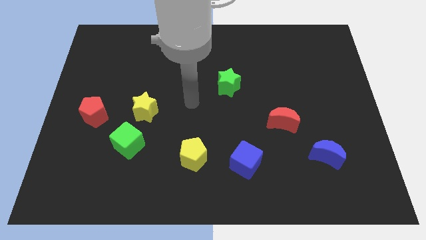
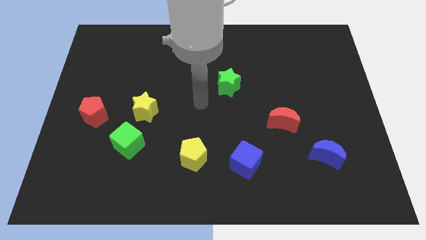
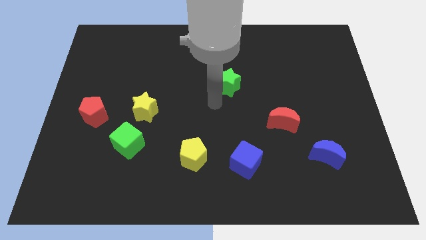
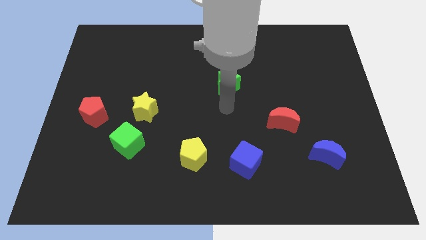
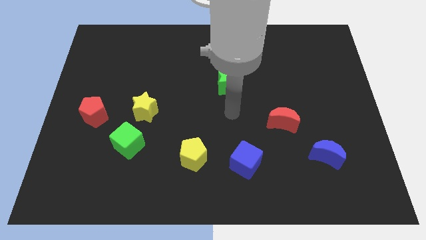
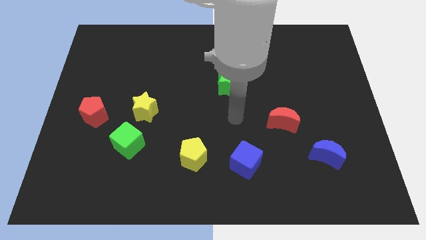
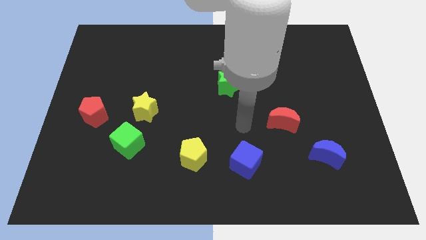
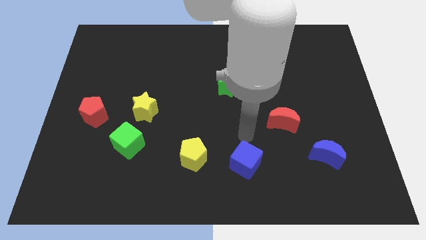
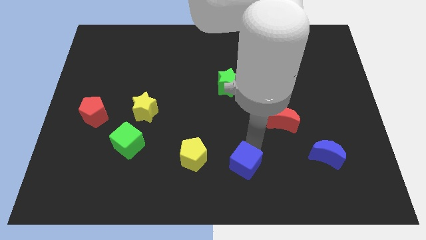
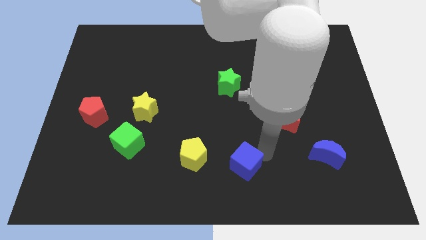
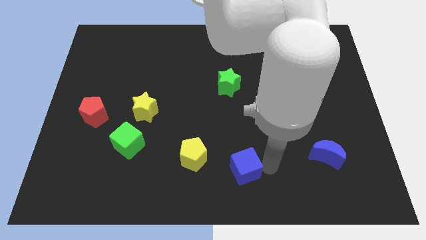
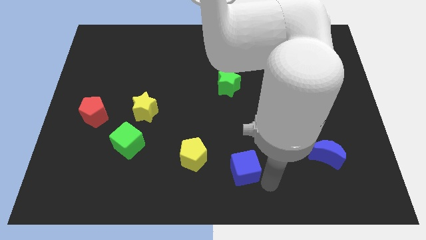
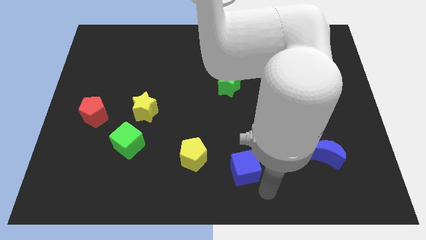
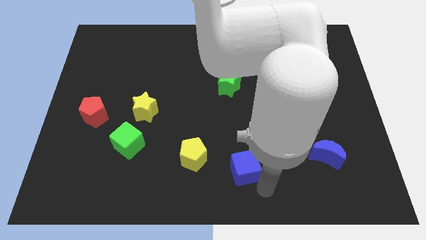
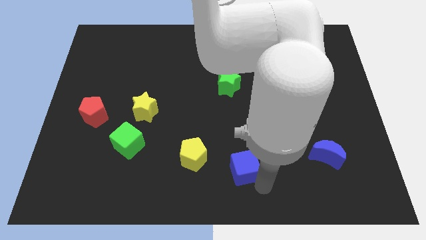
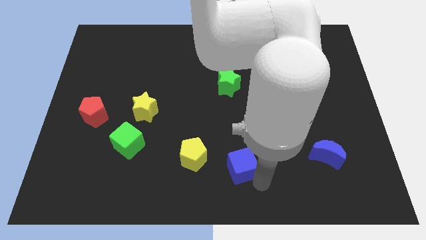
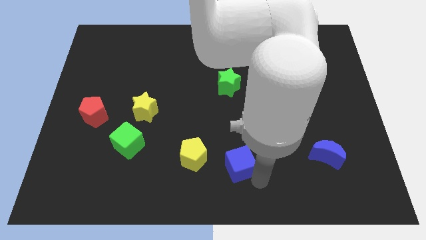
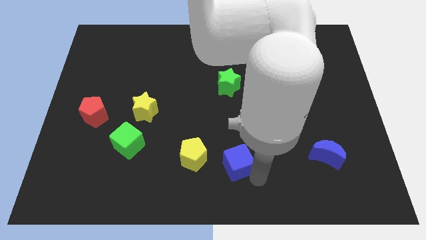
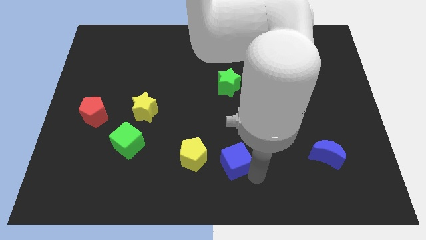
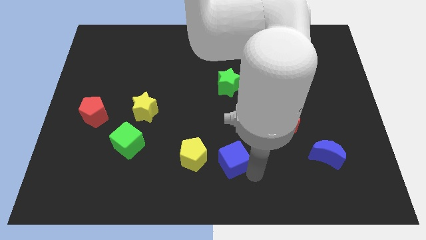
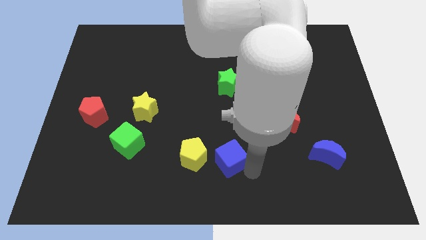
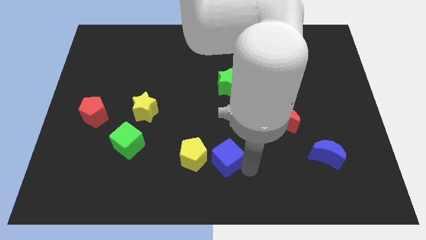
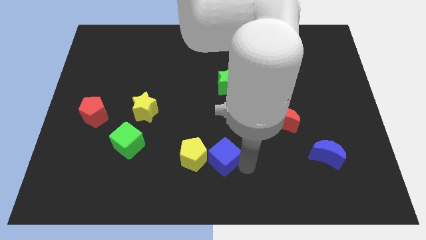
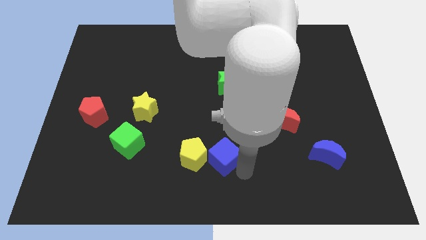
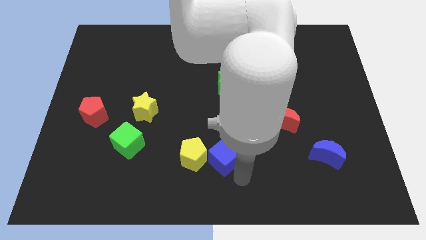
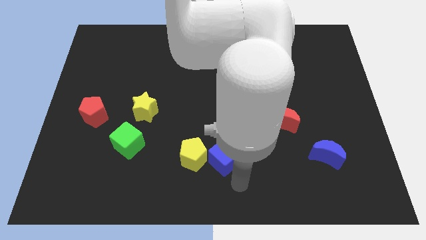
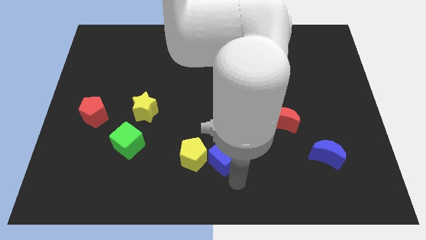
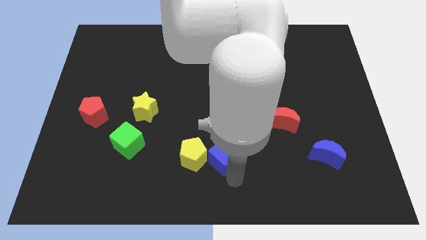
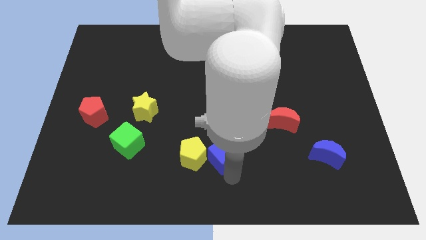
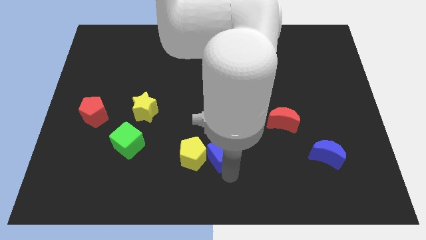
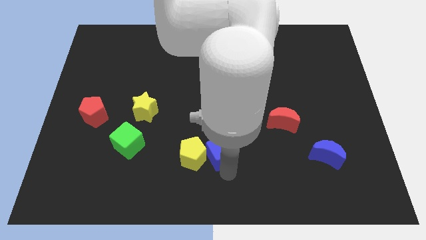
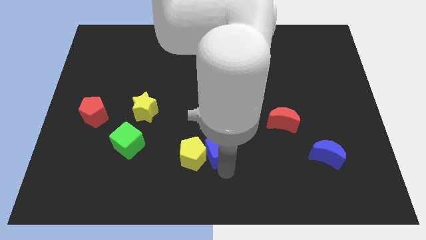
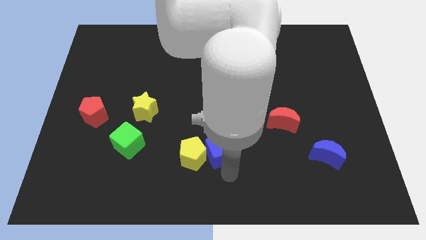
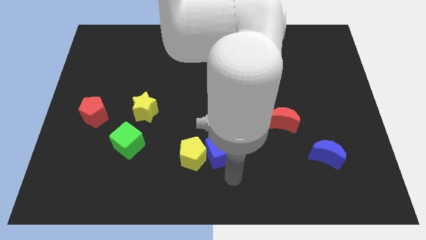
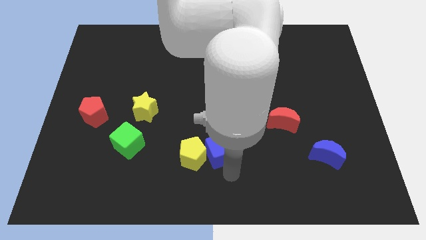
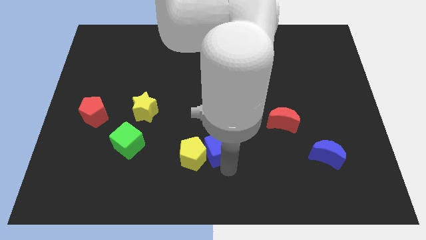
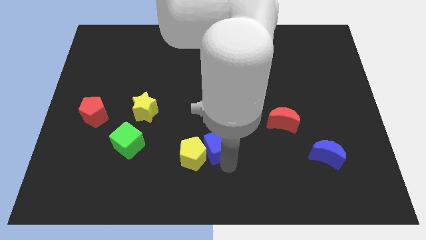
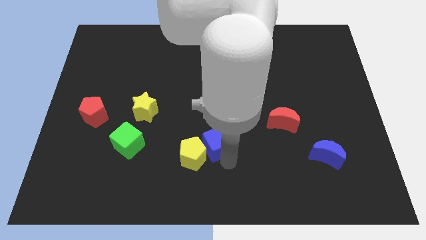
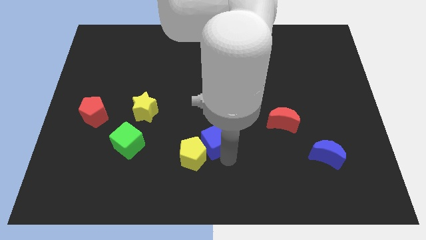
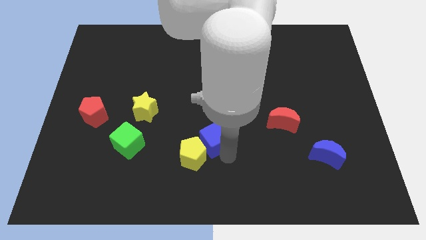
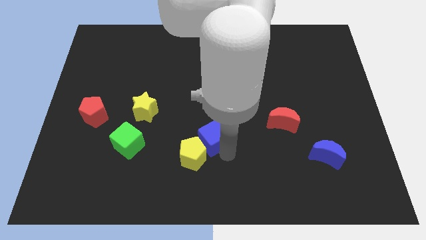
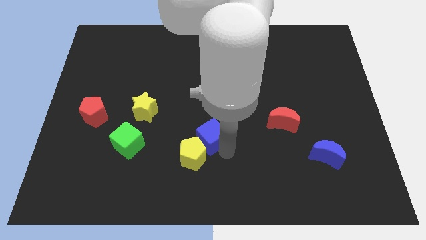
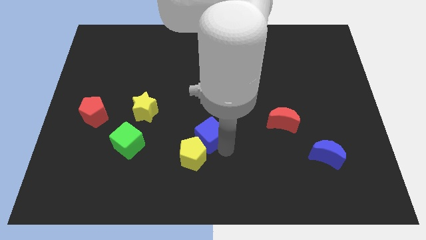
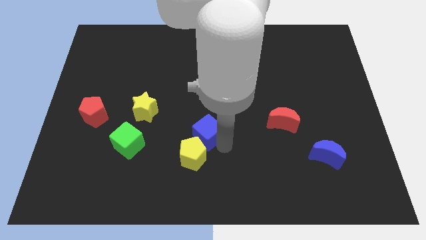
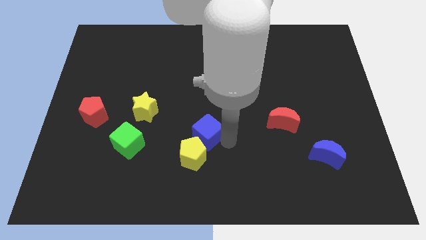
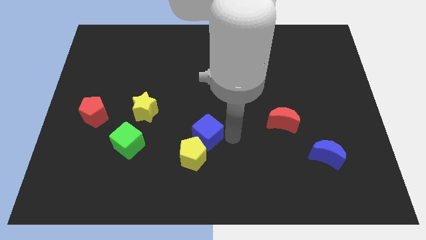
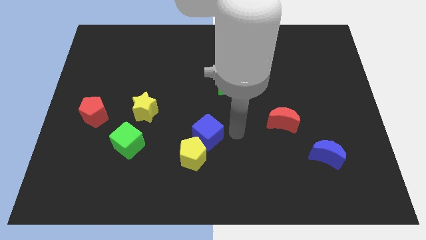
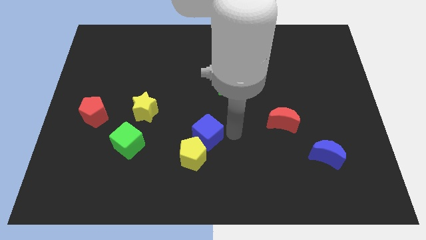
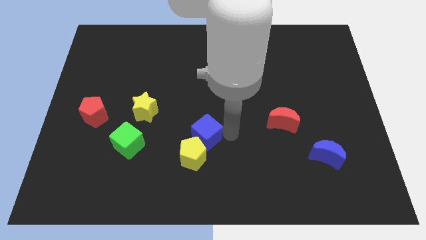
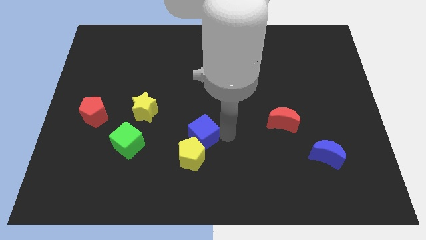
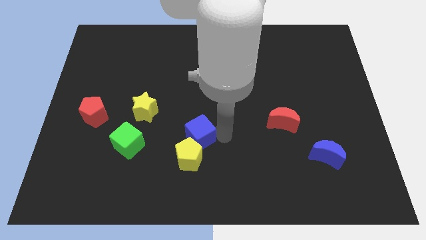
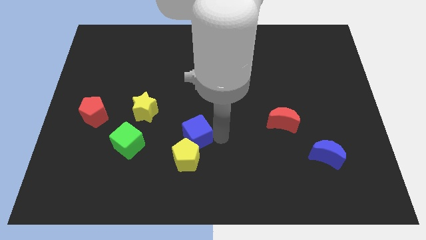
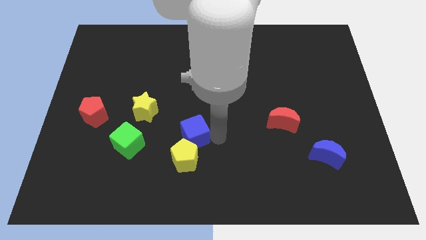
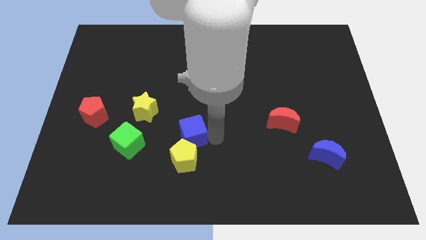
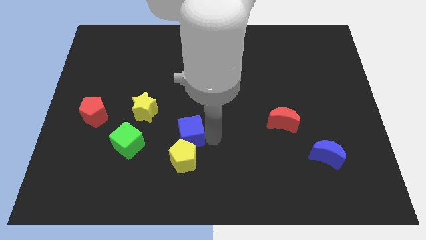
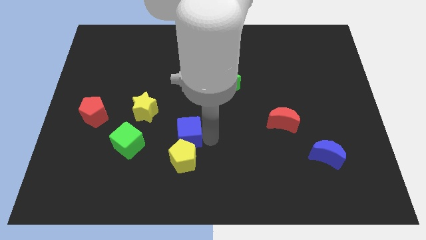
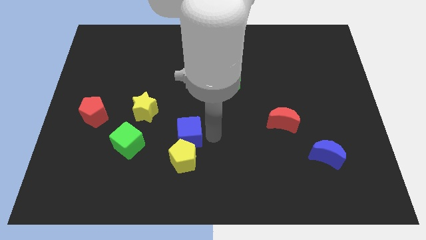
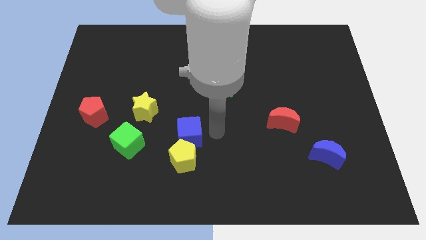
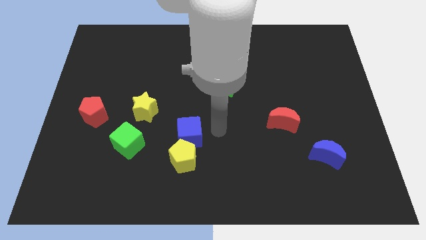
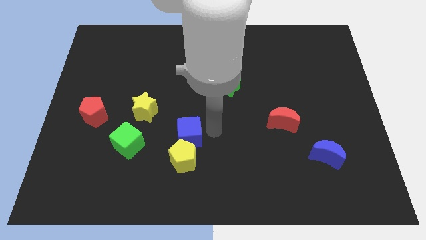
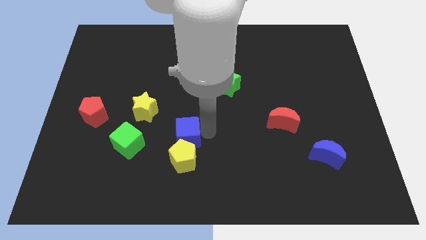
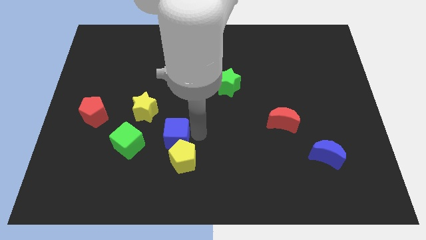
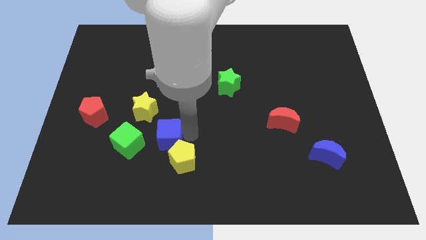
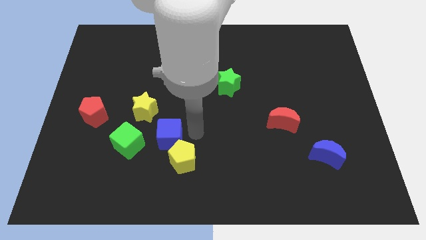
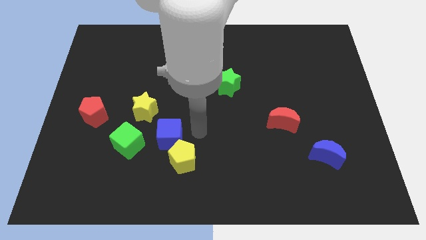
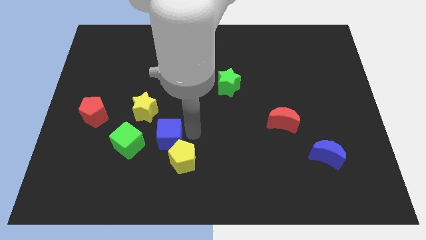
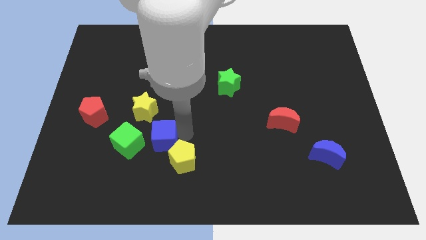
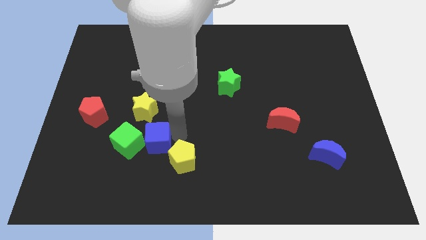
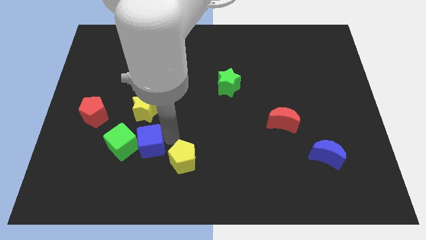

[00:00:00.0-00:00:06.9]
put the blue cube to the green cube

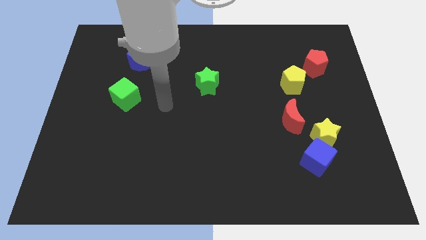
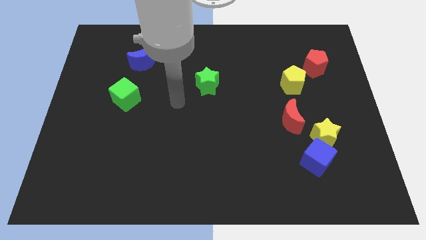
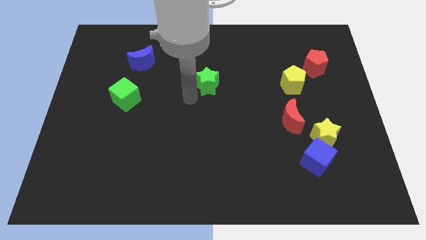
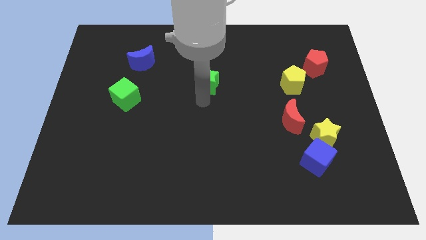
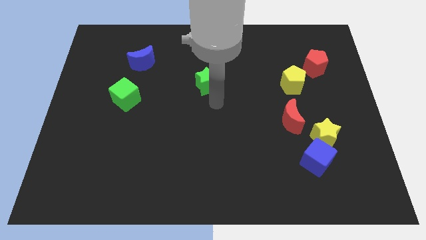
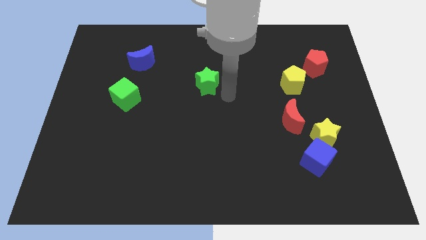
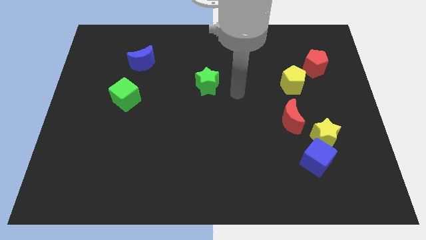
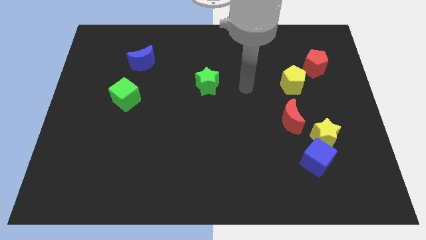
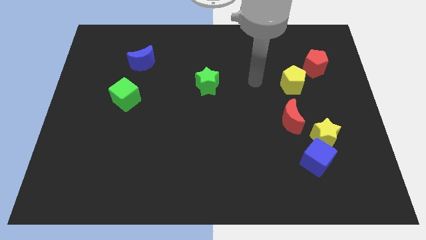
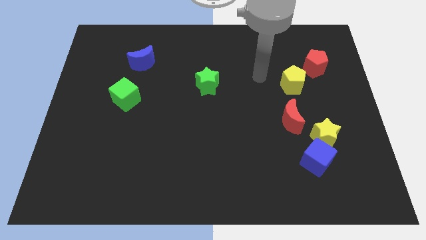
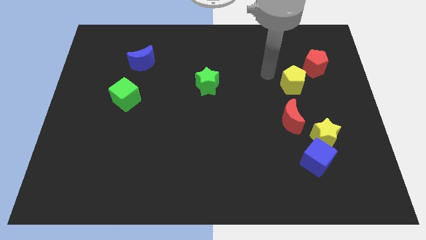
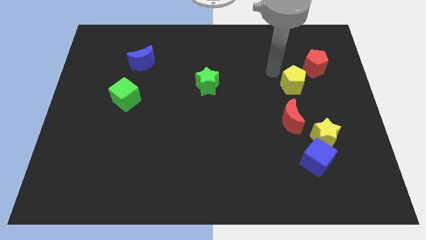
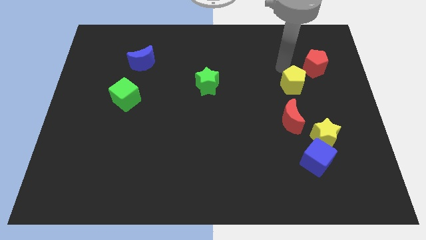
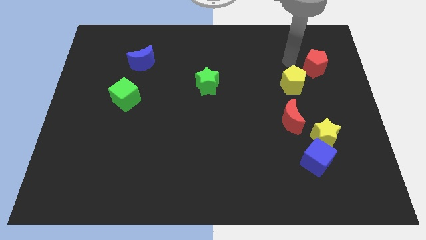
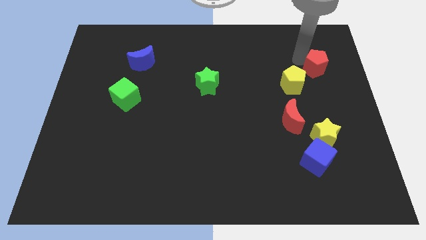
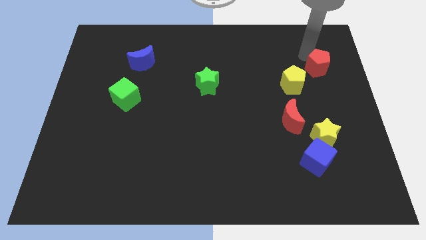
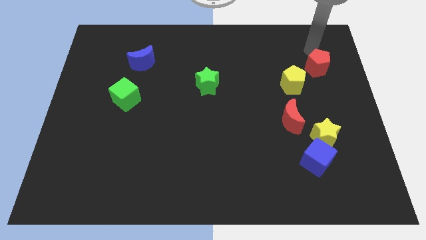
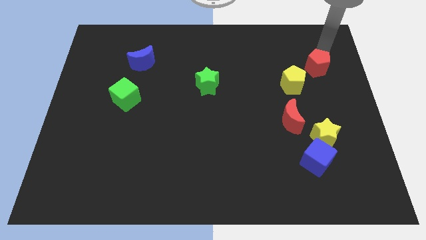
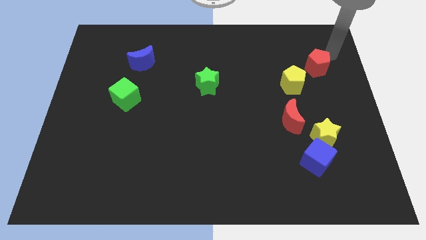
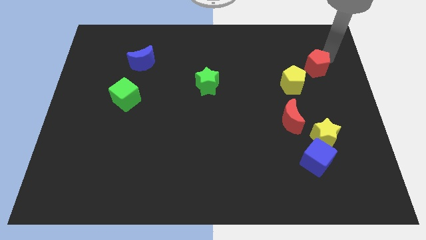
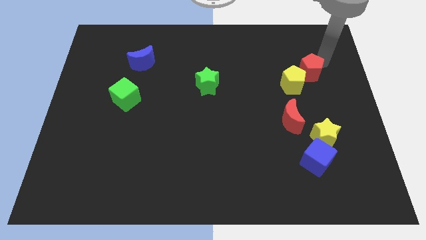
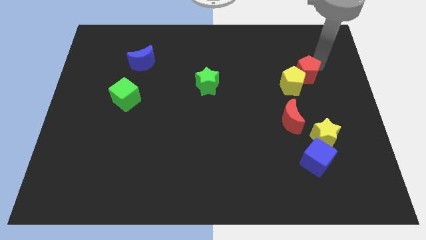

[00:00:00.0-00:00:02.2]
slide the red pentagon to the yellow pentagon
